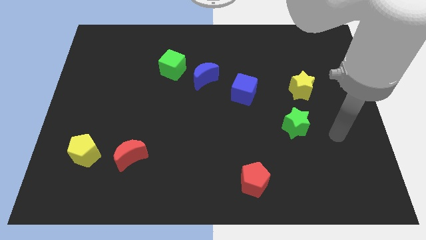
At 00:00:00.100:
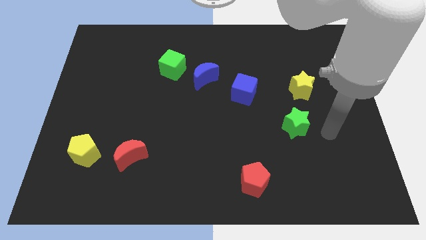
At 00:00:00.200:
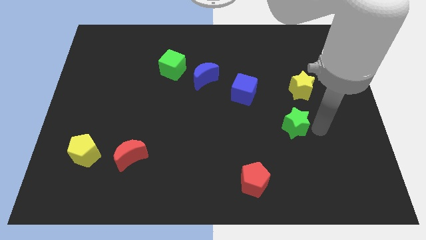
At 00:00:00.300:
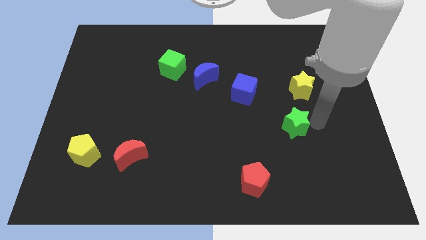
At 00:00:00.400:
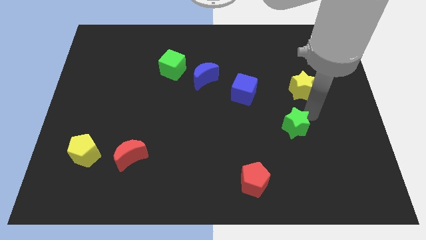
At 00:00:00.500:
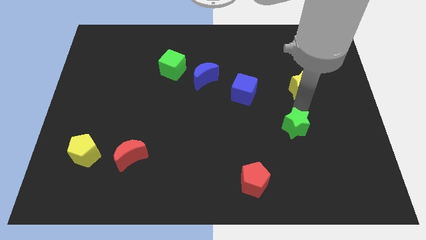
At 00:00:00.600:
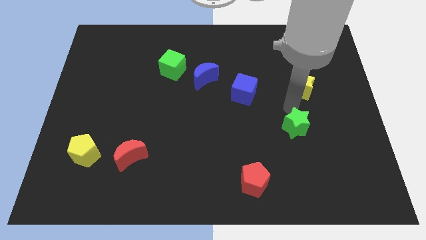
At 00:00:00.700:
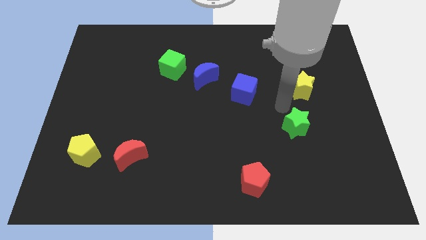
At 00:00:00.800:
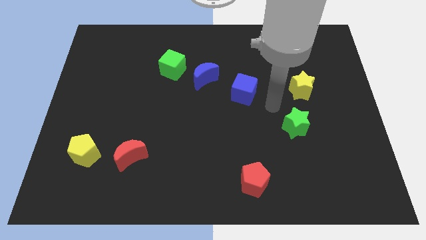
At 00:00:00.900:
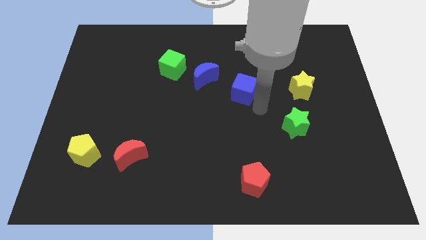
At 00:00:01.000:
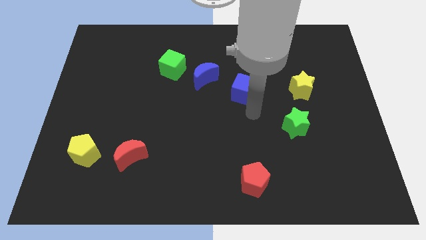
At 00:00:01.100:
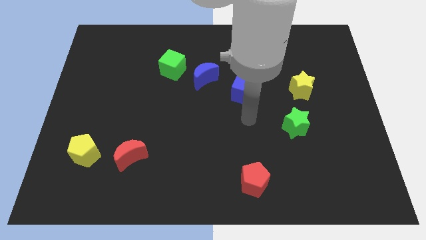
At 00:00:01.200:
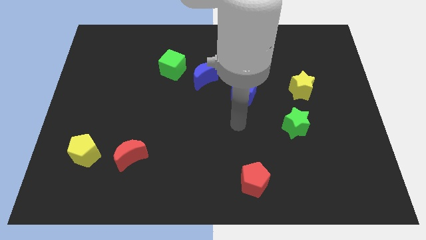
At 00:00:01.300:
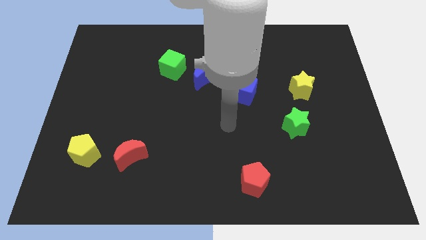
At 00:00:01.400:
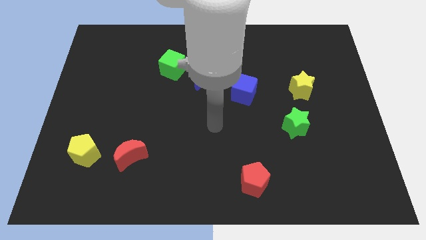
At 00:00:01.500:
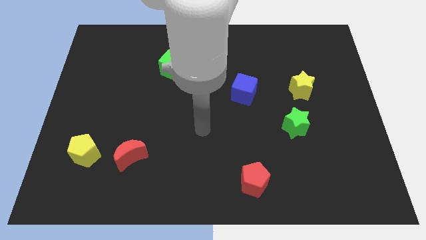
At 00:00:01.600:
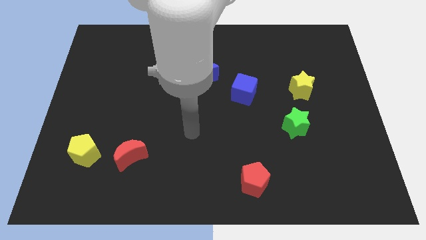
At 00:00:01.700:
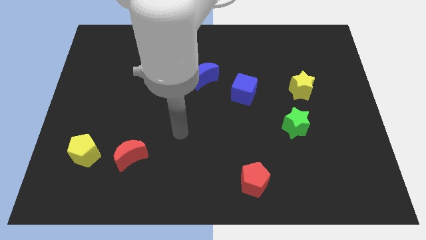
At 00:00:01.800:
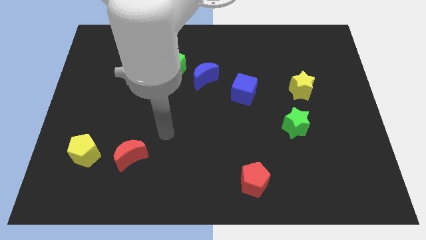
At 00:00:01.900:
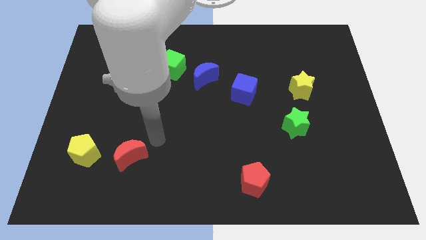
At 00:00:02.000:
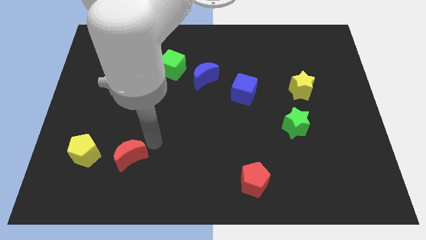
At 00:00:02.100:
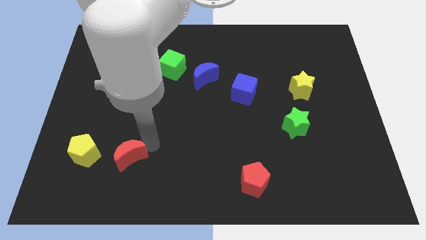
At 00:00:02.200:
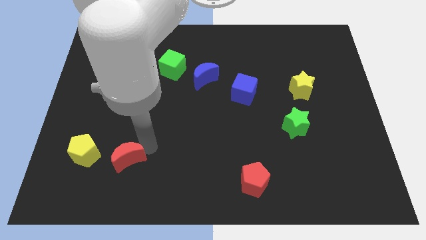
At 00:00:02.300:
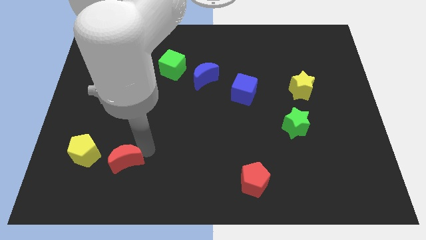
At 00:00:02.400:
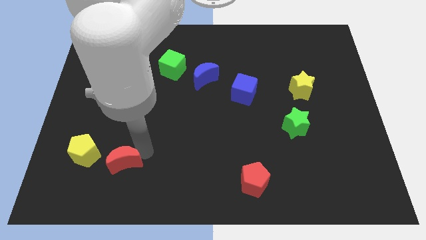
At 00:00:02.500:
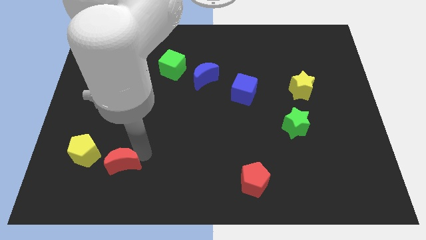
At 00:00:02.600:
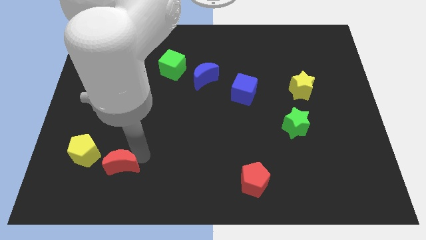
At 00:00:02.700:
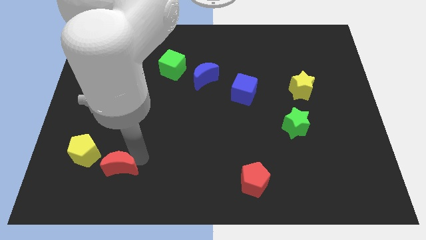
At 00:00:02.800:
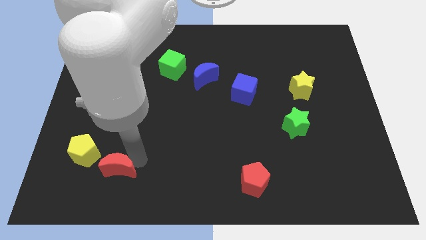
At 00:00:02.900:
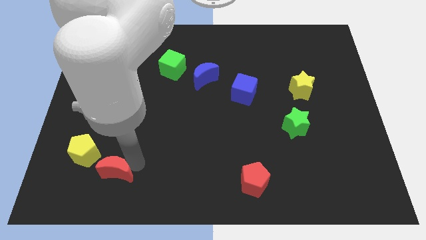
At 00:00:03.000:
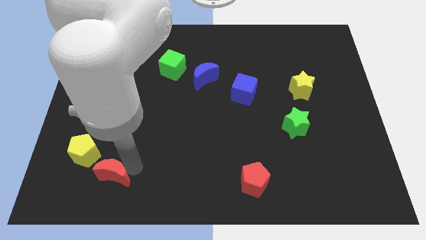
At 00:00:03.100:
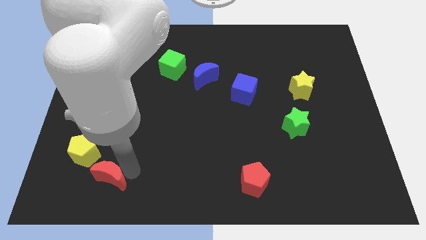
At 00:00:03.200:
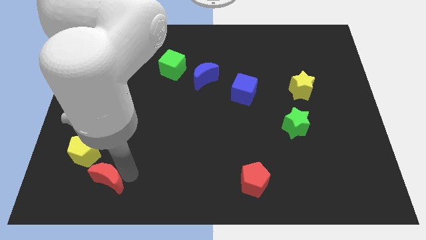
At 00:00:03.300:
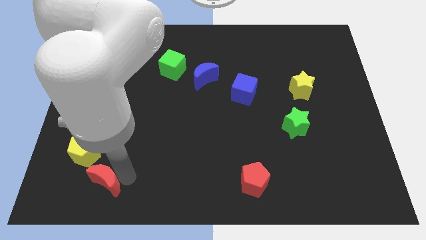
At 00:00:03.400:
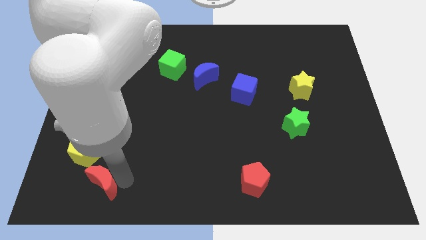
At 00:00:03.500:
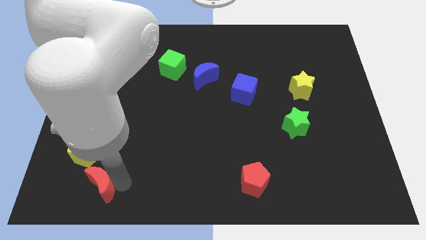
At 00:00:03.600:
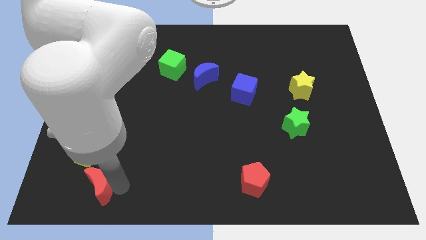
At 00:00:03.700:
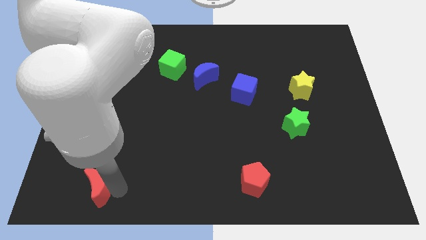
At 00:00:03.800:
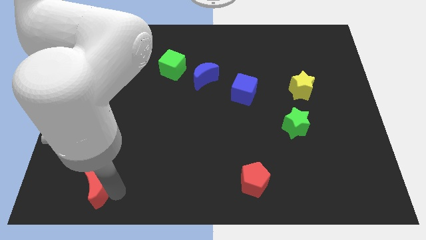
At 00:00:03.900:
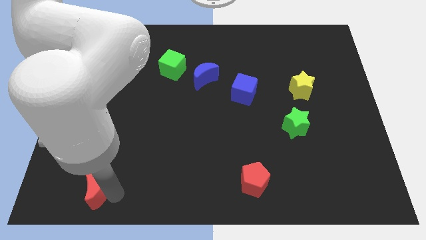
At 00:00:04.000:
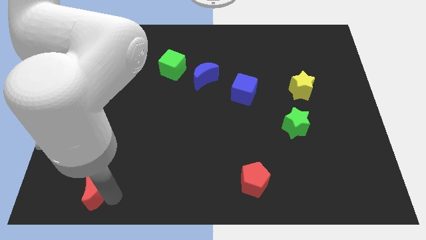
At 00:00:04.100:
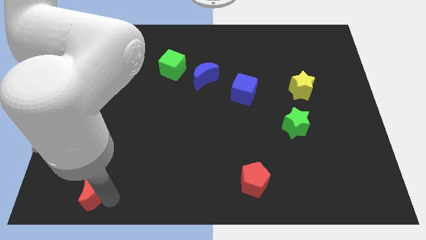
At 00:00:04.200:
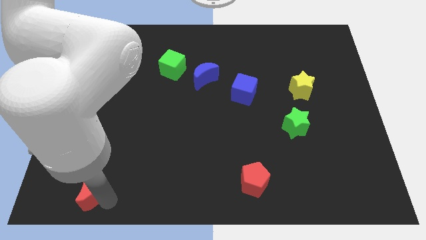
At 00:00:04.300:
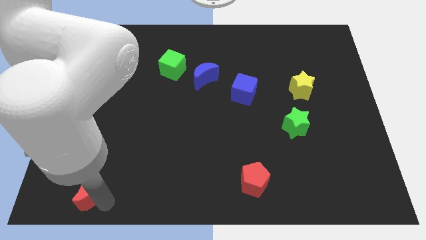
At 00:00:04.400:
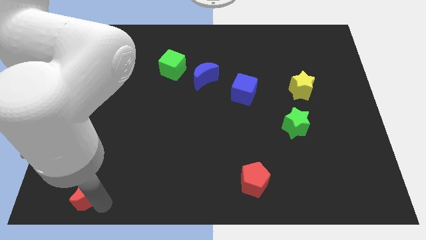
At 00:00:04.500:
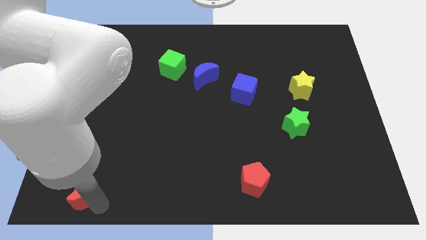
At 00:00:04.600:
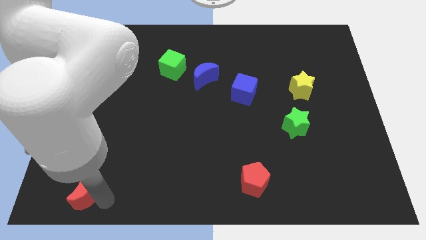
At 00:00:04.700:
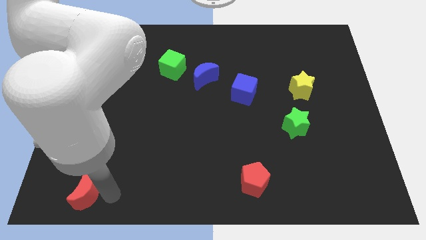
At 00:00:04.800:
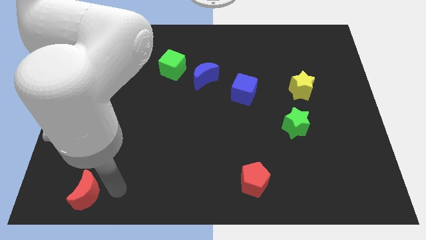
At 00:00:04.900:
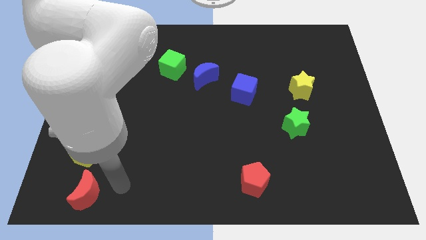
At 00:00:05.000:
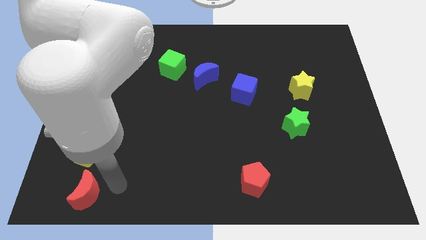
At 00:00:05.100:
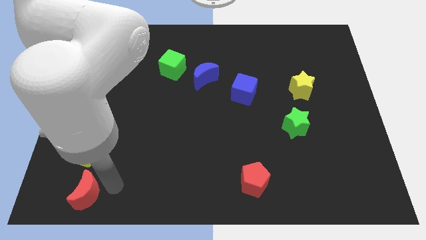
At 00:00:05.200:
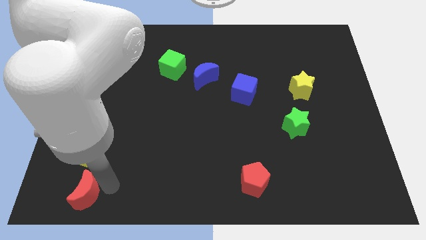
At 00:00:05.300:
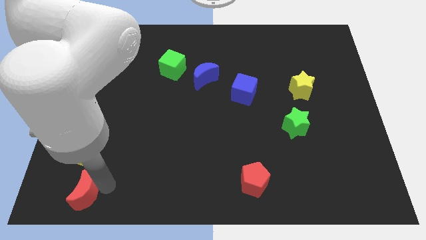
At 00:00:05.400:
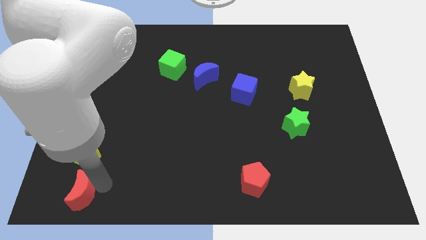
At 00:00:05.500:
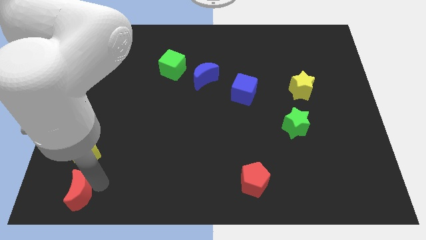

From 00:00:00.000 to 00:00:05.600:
push the red moon to the bottom left of the board

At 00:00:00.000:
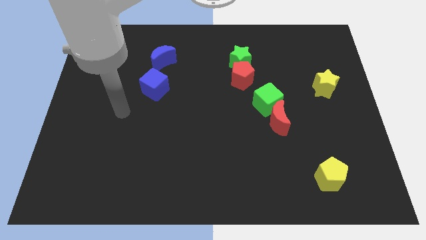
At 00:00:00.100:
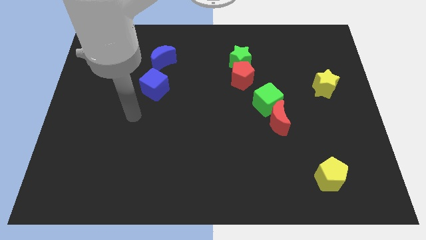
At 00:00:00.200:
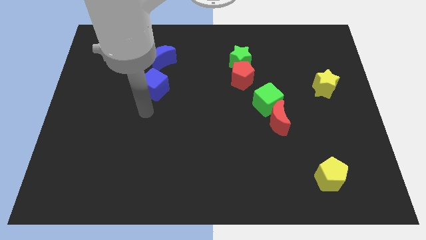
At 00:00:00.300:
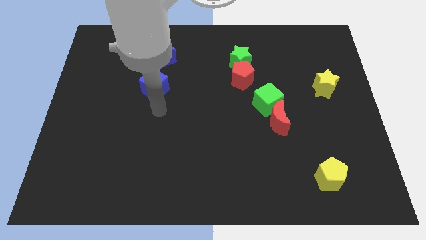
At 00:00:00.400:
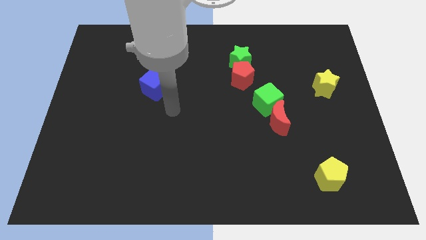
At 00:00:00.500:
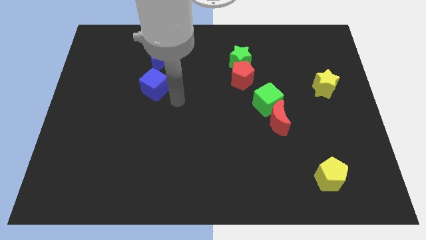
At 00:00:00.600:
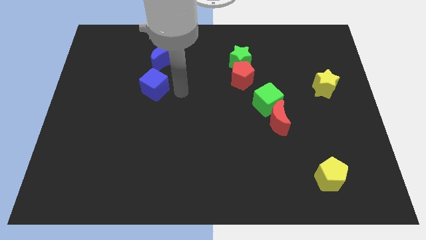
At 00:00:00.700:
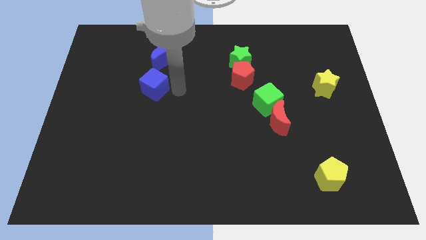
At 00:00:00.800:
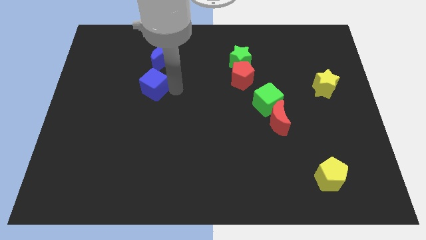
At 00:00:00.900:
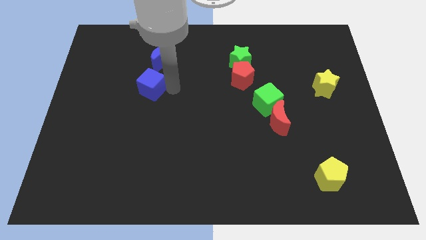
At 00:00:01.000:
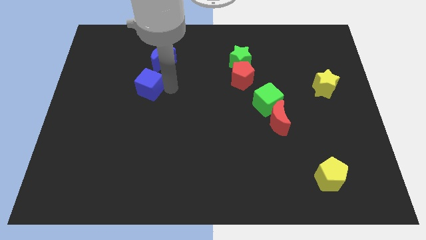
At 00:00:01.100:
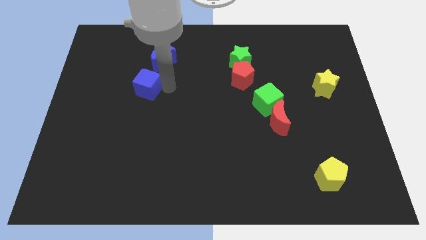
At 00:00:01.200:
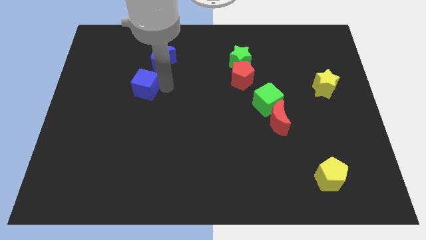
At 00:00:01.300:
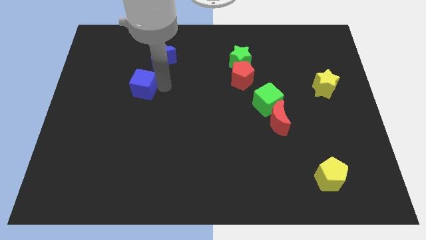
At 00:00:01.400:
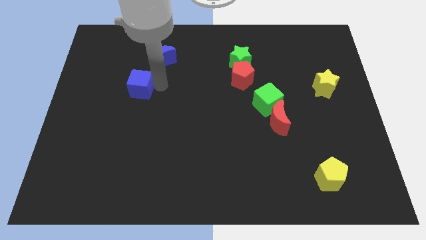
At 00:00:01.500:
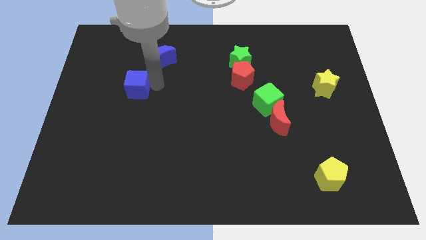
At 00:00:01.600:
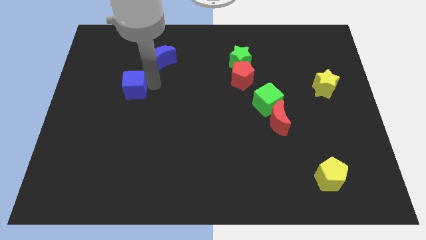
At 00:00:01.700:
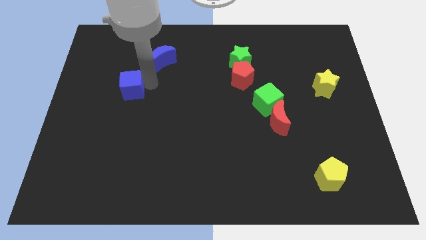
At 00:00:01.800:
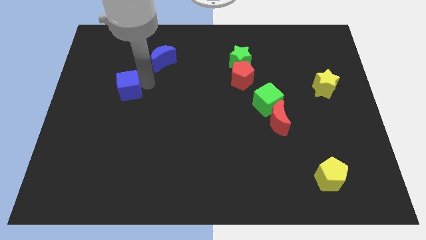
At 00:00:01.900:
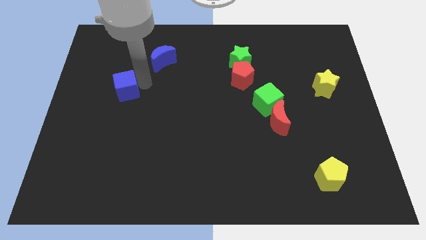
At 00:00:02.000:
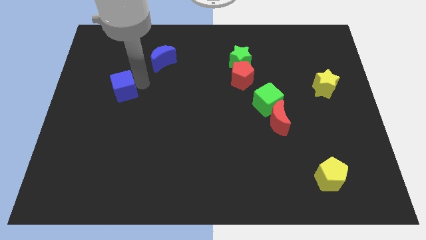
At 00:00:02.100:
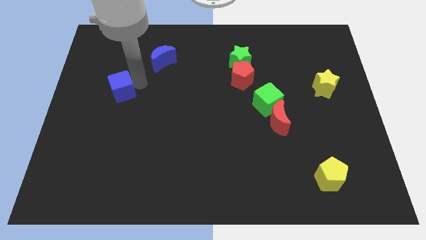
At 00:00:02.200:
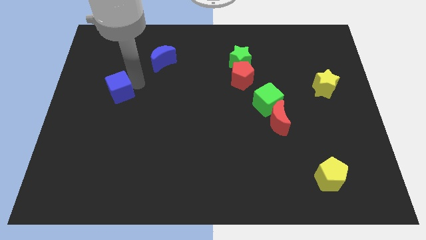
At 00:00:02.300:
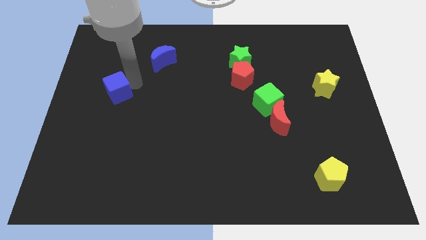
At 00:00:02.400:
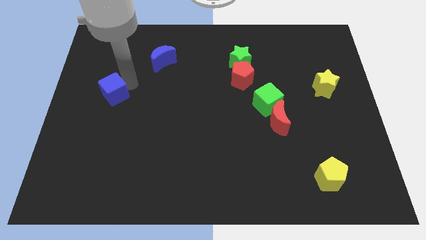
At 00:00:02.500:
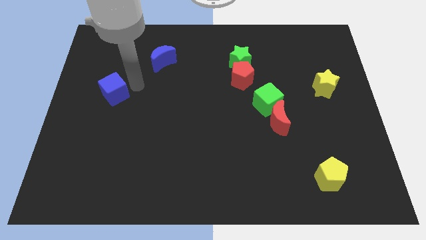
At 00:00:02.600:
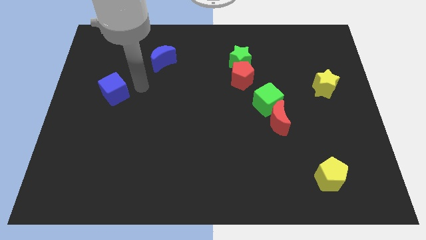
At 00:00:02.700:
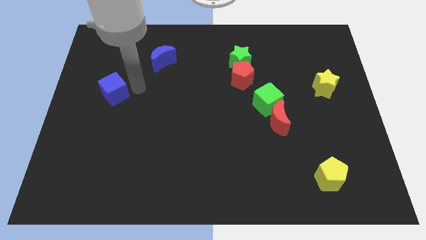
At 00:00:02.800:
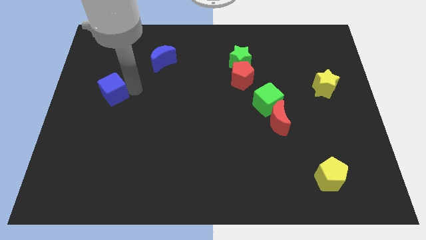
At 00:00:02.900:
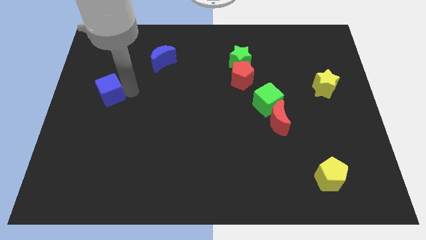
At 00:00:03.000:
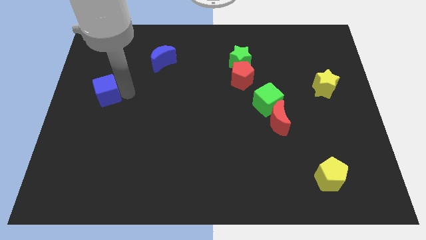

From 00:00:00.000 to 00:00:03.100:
slide the blue cube to the center left
